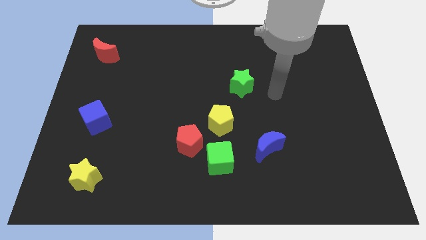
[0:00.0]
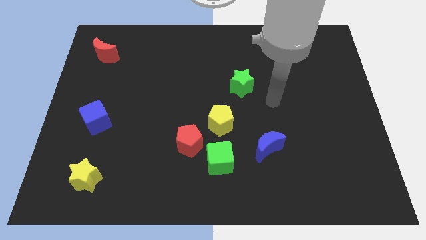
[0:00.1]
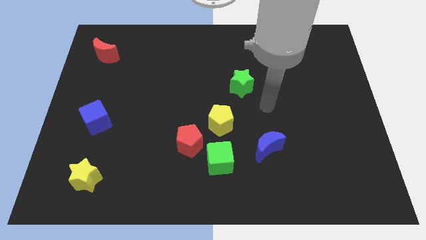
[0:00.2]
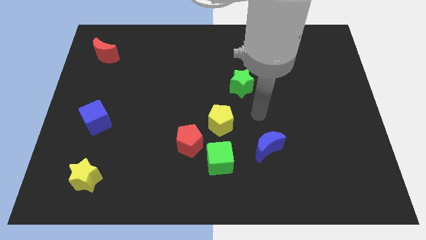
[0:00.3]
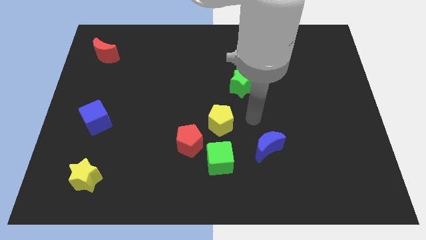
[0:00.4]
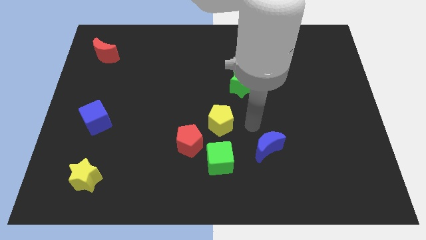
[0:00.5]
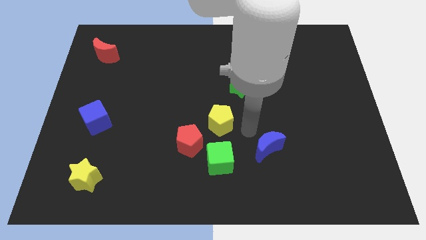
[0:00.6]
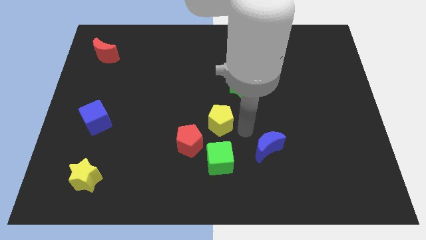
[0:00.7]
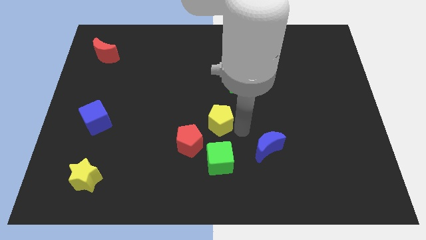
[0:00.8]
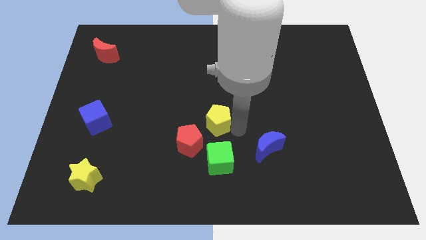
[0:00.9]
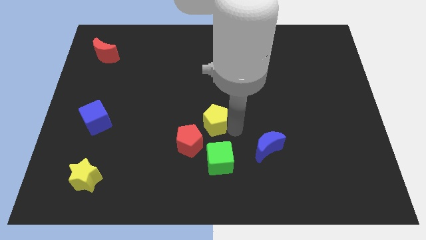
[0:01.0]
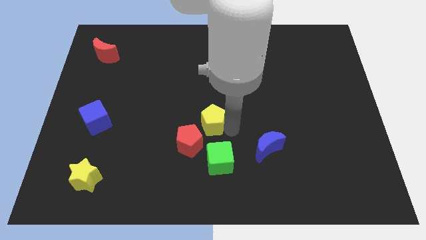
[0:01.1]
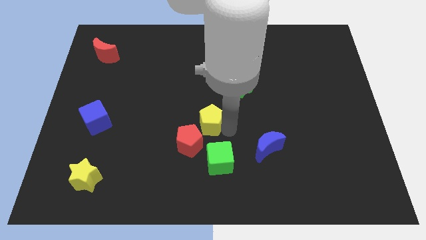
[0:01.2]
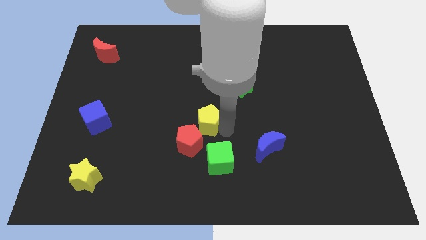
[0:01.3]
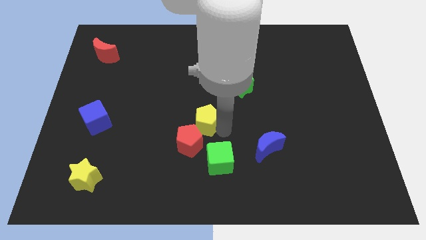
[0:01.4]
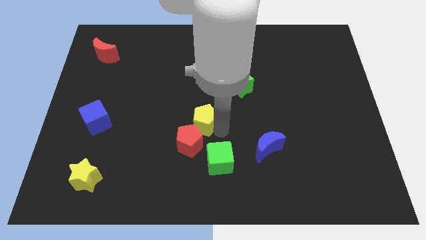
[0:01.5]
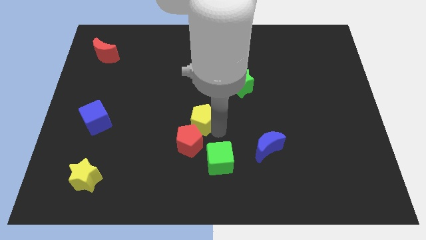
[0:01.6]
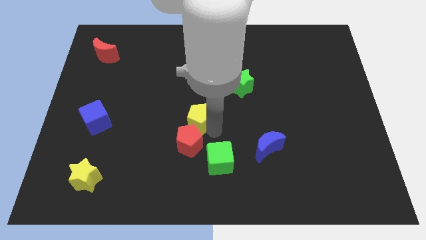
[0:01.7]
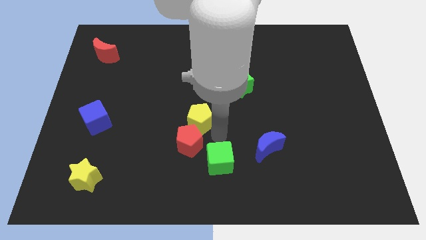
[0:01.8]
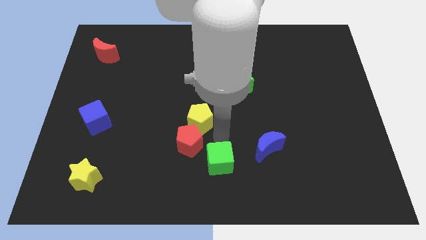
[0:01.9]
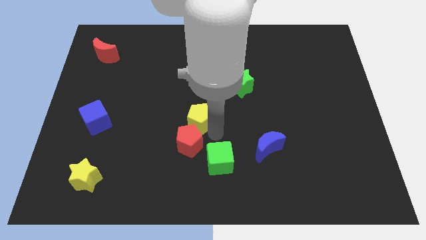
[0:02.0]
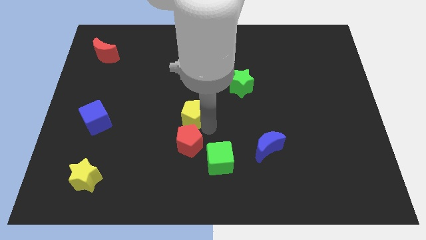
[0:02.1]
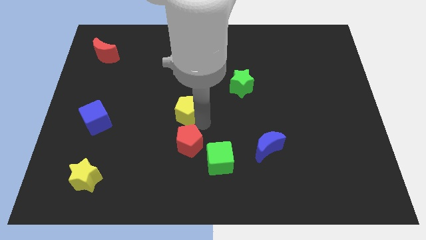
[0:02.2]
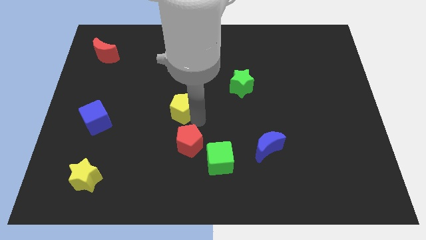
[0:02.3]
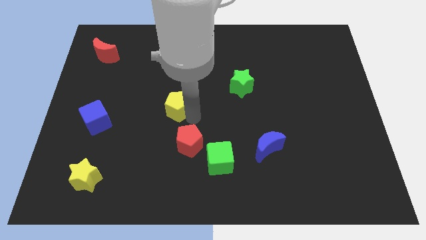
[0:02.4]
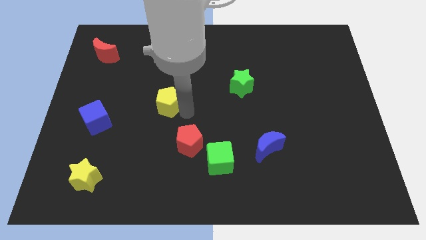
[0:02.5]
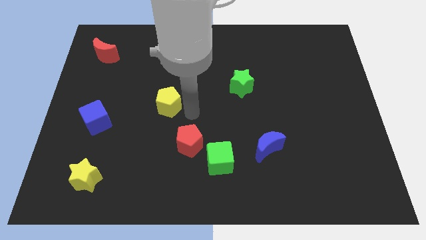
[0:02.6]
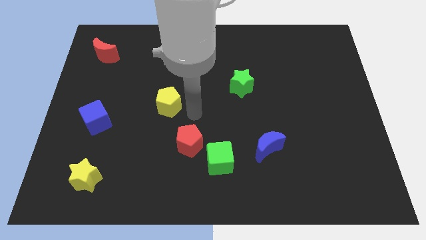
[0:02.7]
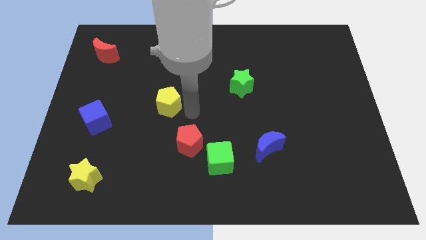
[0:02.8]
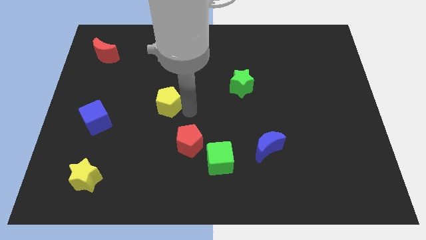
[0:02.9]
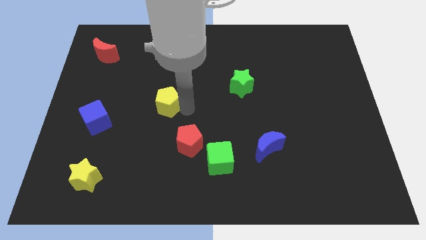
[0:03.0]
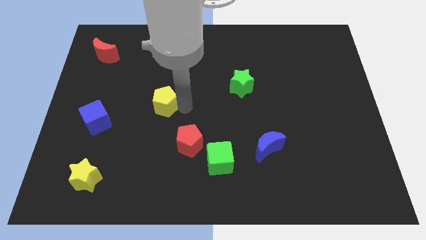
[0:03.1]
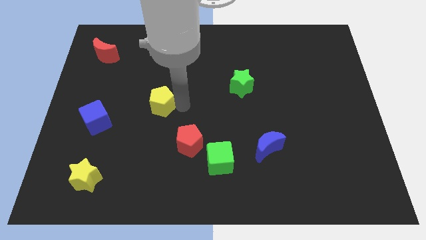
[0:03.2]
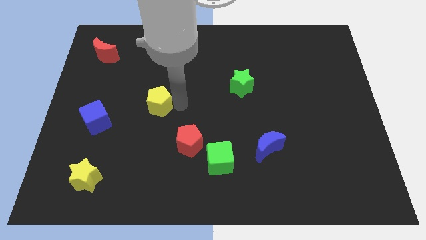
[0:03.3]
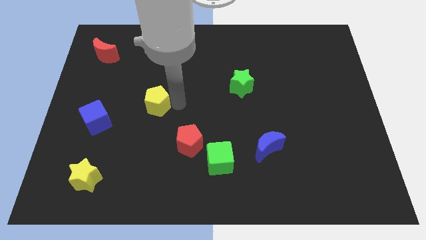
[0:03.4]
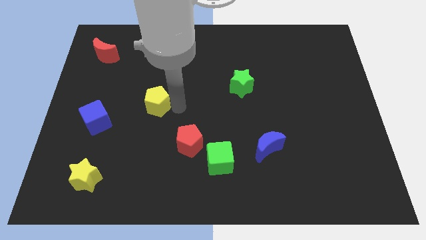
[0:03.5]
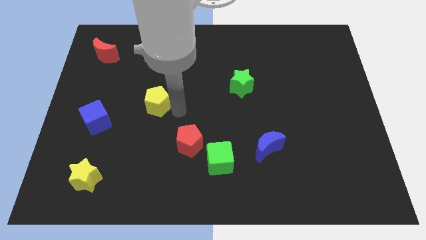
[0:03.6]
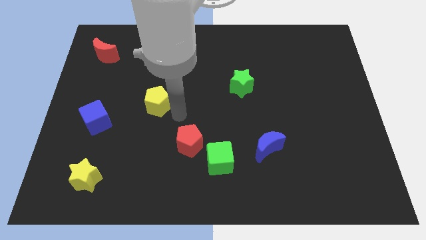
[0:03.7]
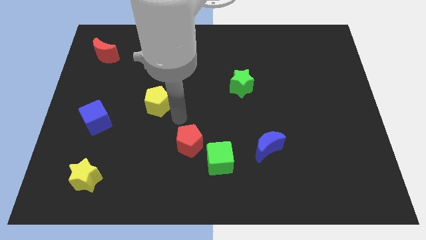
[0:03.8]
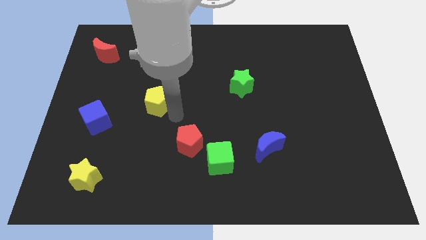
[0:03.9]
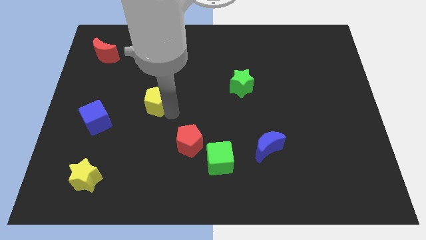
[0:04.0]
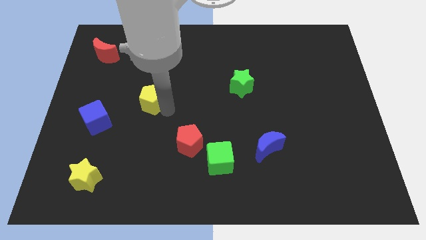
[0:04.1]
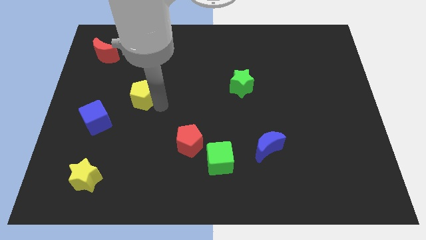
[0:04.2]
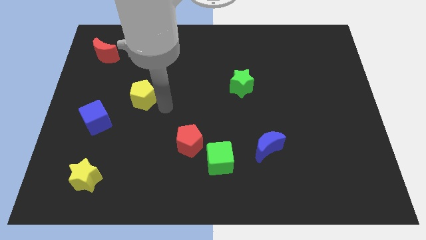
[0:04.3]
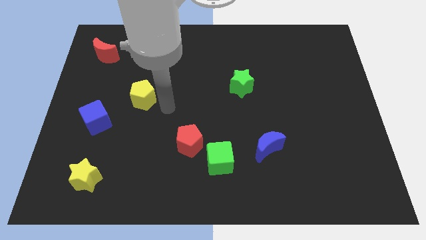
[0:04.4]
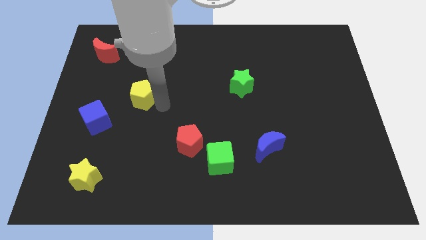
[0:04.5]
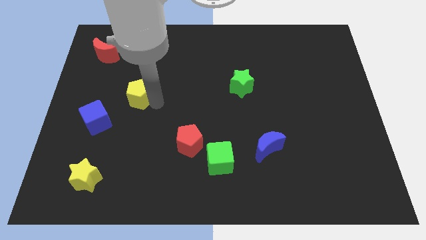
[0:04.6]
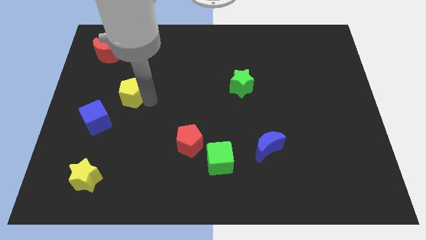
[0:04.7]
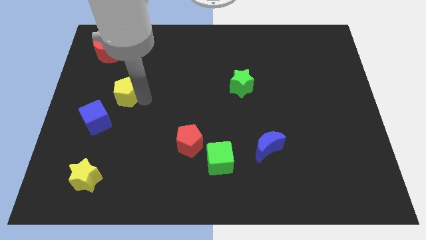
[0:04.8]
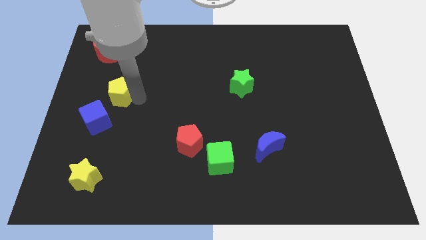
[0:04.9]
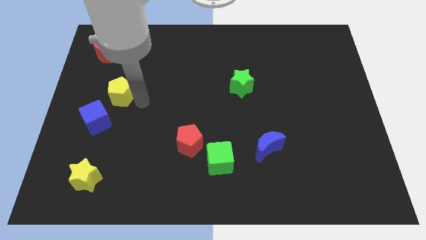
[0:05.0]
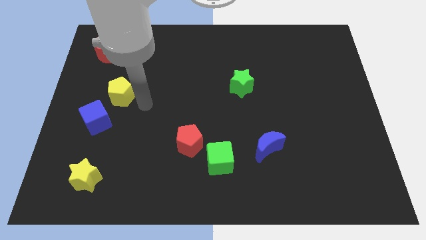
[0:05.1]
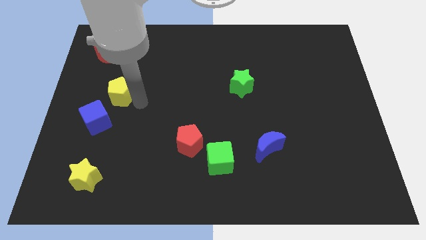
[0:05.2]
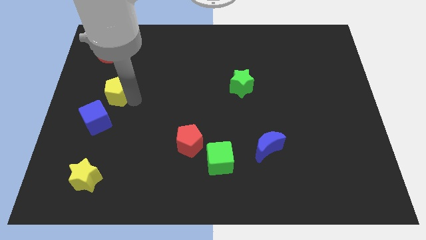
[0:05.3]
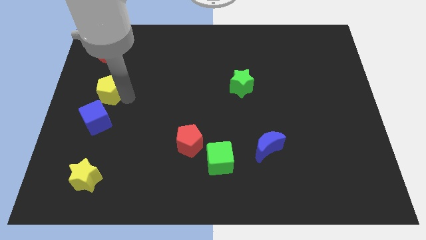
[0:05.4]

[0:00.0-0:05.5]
put the yellow pentagon to the bottom of the red moon

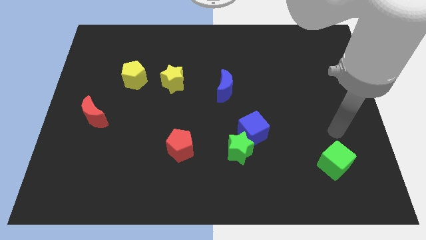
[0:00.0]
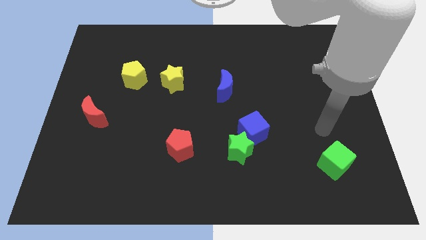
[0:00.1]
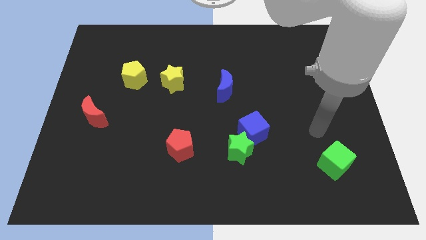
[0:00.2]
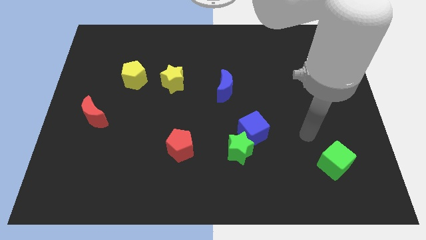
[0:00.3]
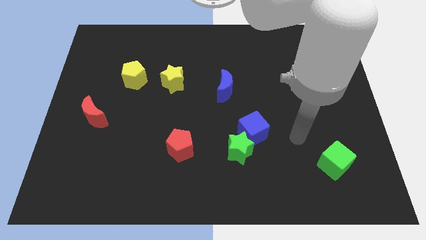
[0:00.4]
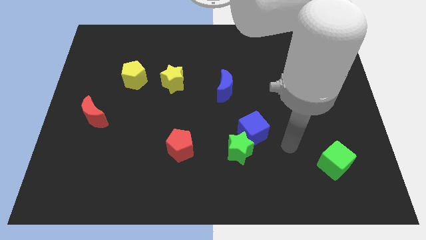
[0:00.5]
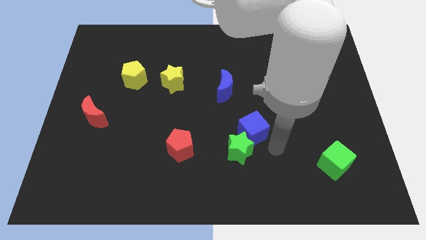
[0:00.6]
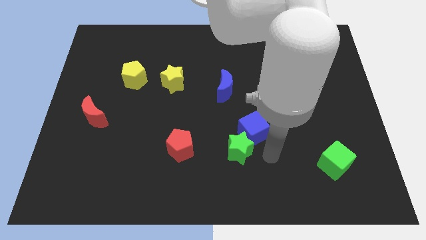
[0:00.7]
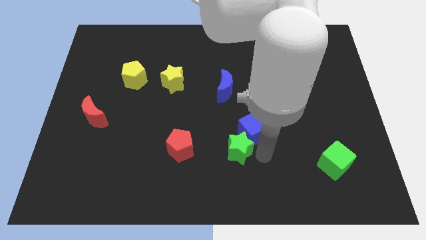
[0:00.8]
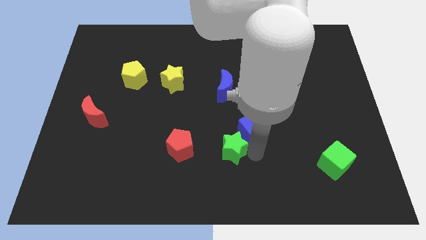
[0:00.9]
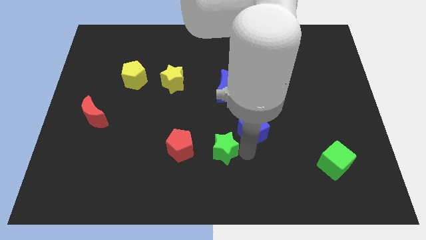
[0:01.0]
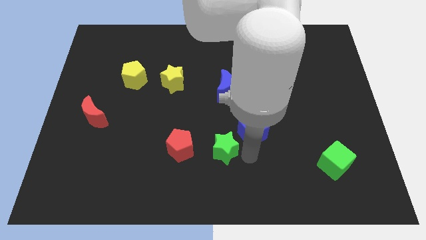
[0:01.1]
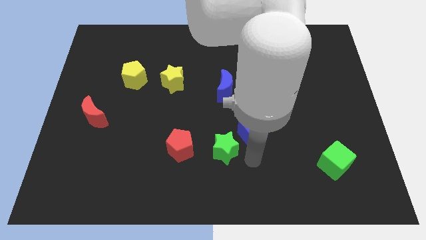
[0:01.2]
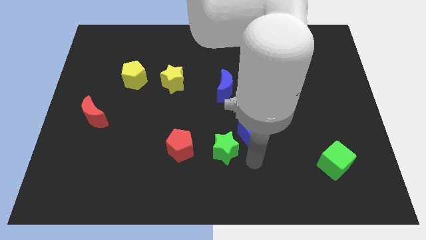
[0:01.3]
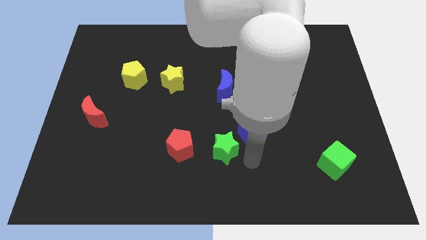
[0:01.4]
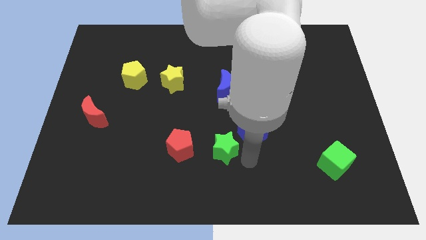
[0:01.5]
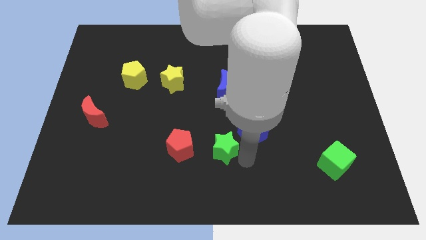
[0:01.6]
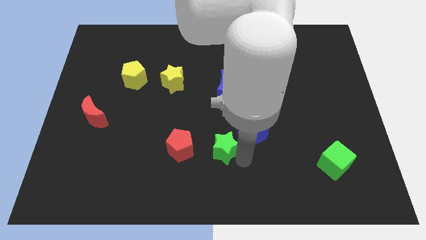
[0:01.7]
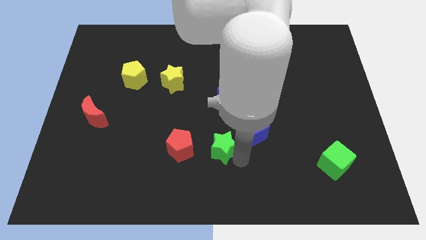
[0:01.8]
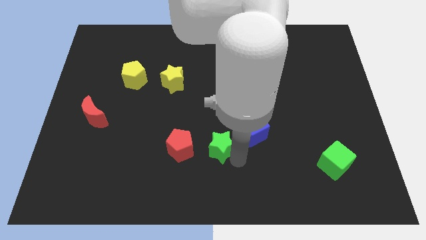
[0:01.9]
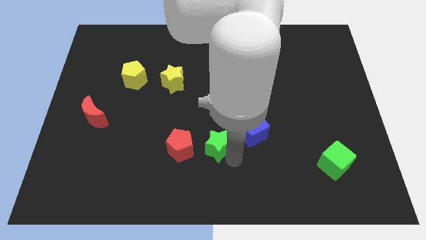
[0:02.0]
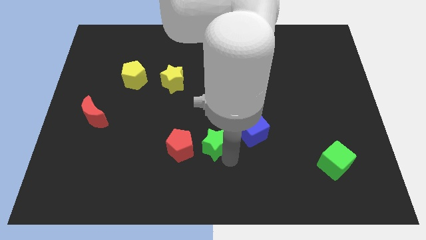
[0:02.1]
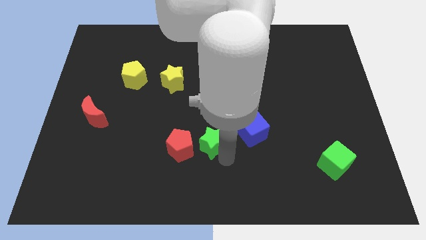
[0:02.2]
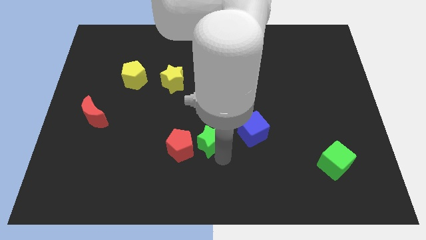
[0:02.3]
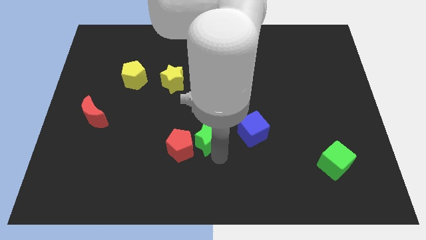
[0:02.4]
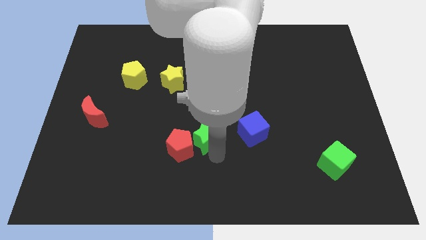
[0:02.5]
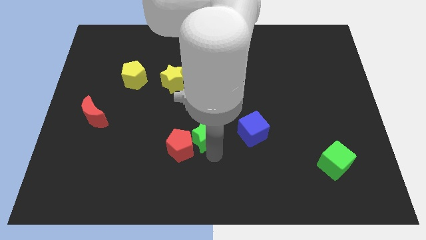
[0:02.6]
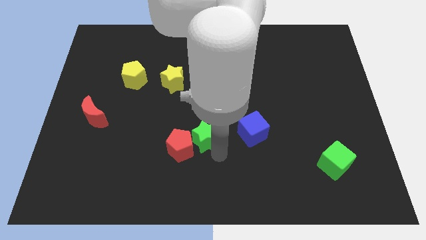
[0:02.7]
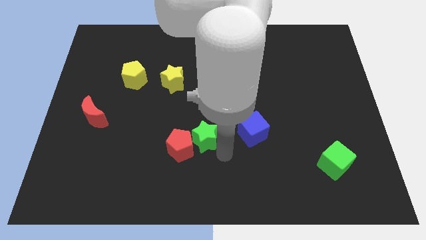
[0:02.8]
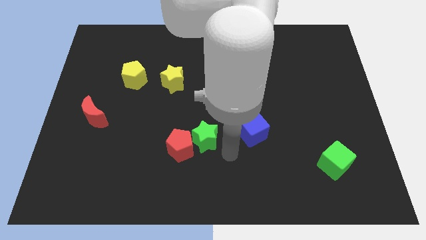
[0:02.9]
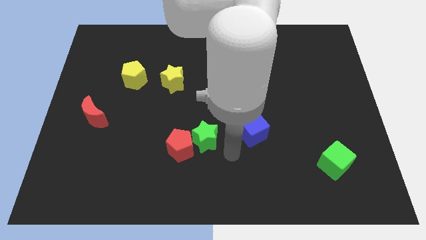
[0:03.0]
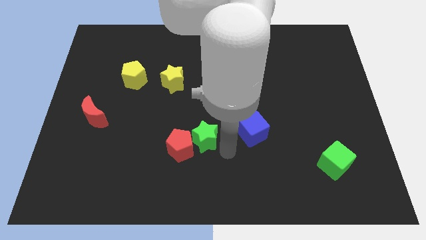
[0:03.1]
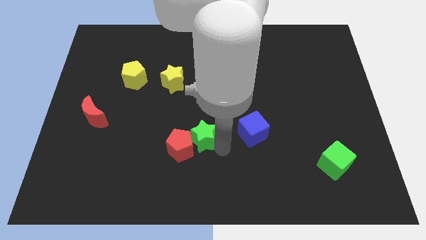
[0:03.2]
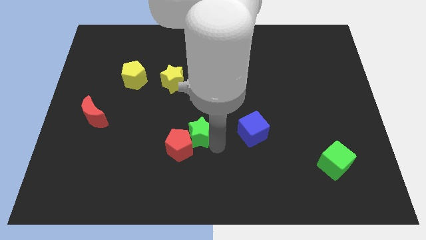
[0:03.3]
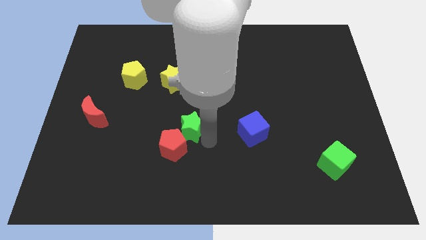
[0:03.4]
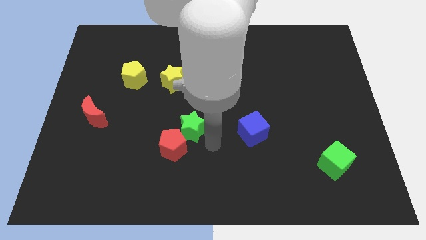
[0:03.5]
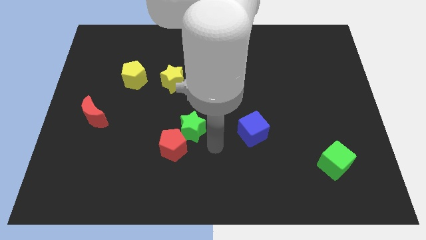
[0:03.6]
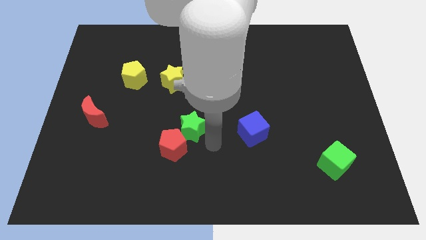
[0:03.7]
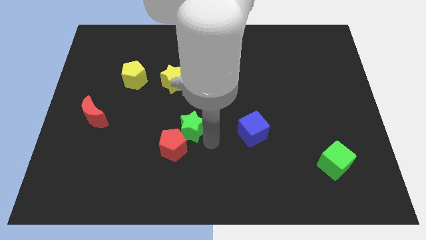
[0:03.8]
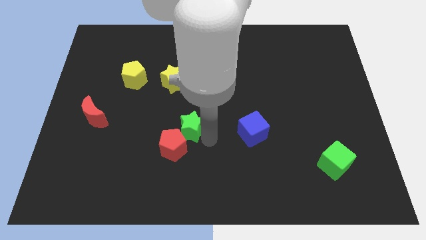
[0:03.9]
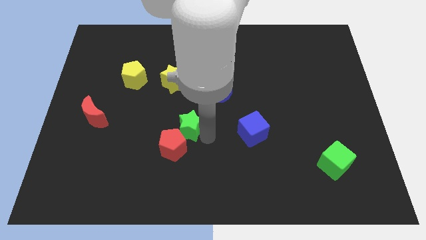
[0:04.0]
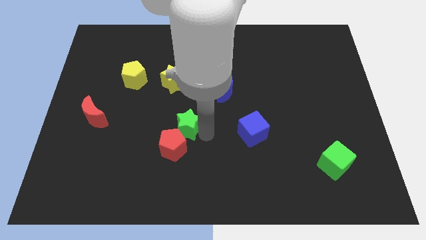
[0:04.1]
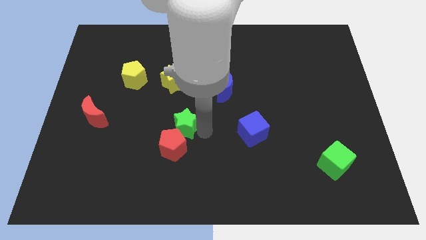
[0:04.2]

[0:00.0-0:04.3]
put the green star below the yellow star
